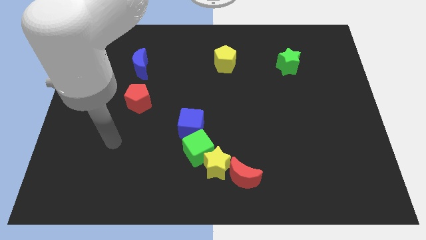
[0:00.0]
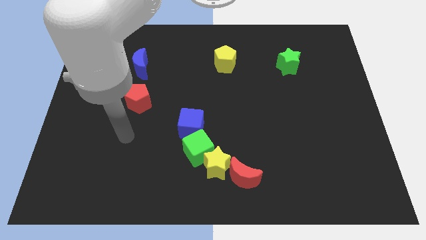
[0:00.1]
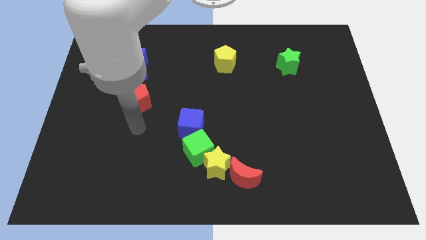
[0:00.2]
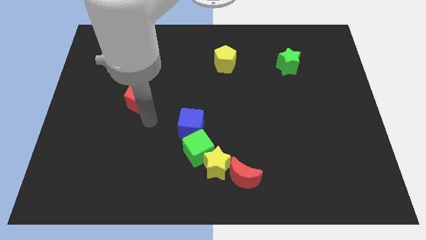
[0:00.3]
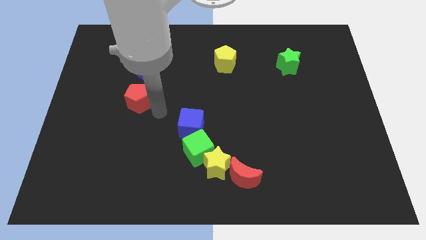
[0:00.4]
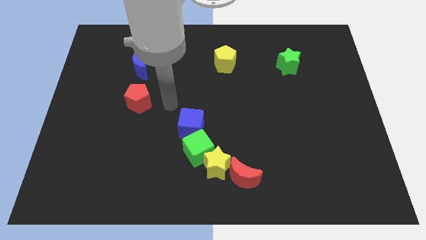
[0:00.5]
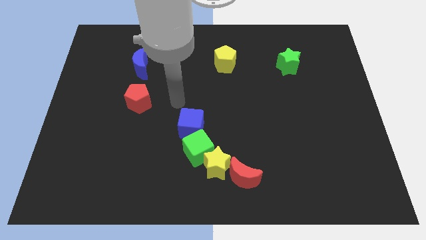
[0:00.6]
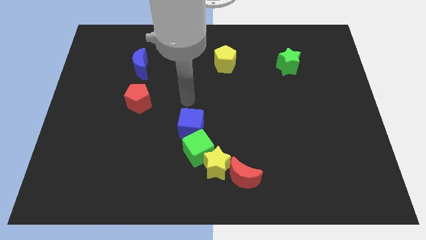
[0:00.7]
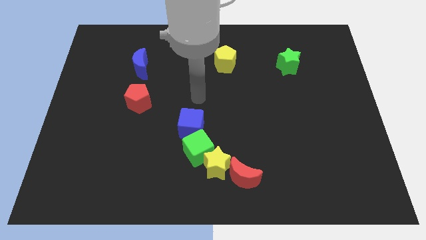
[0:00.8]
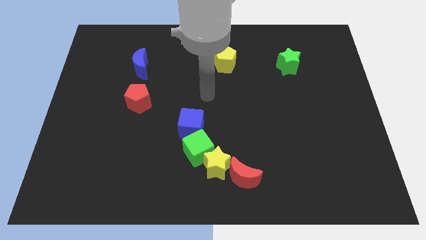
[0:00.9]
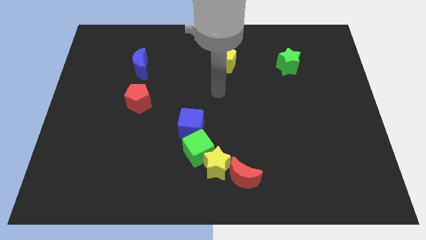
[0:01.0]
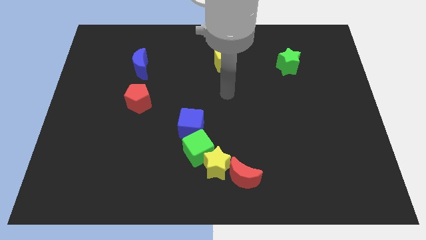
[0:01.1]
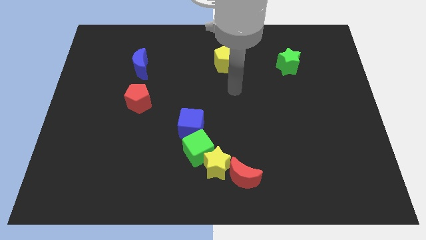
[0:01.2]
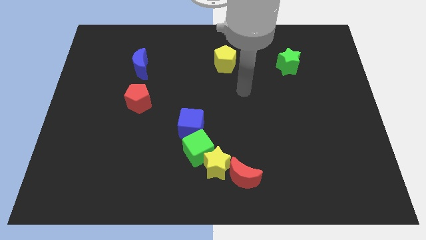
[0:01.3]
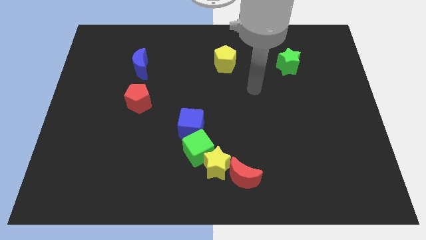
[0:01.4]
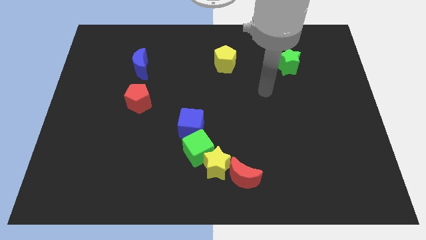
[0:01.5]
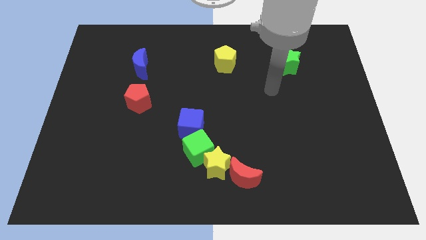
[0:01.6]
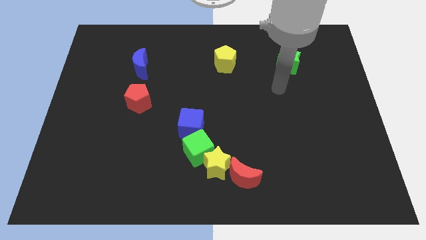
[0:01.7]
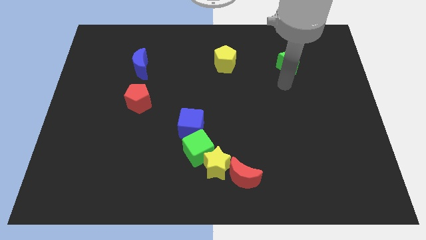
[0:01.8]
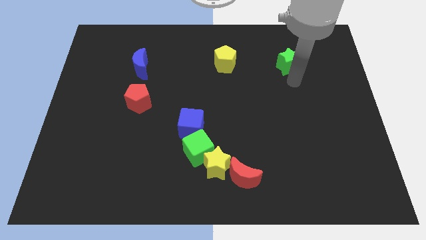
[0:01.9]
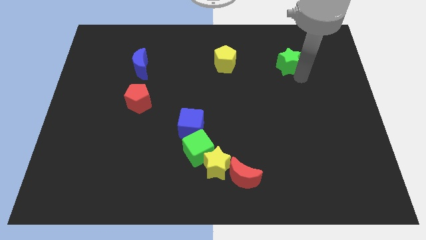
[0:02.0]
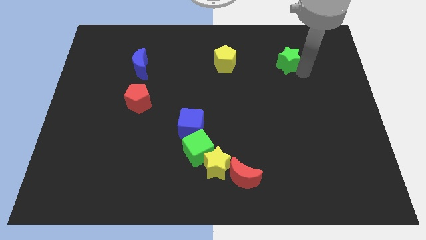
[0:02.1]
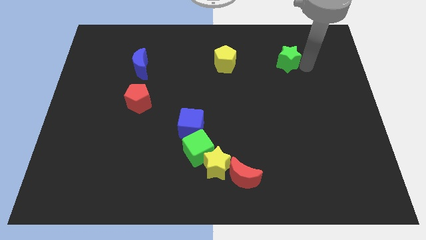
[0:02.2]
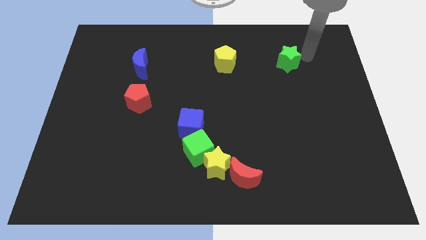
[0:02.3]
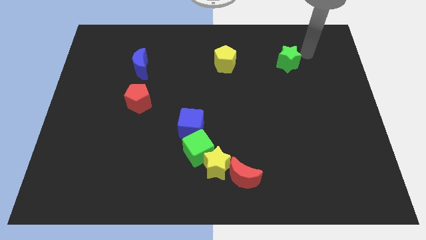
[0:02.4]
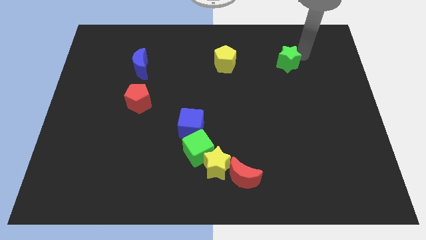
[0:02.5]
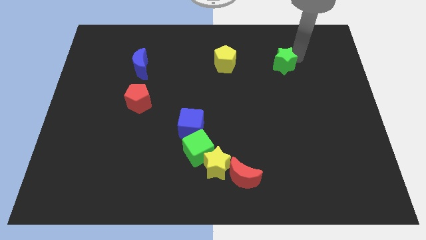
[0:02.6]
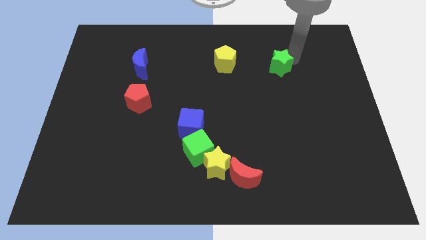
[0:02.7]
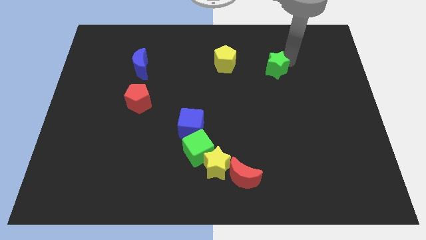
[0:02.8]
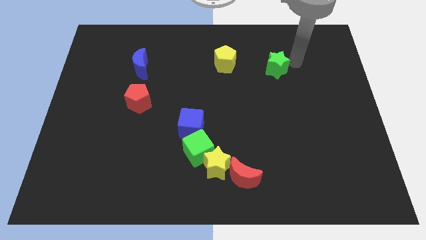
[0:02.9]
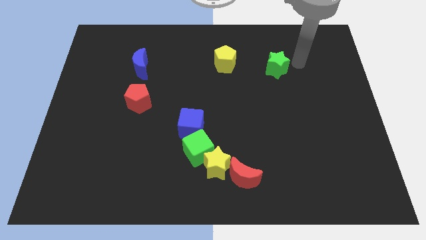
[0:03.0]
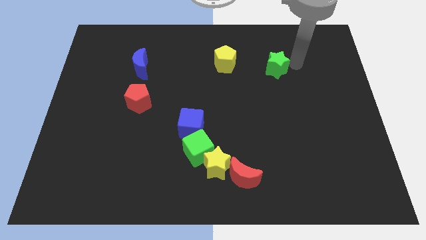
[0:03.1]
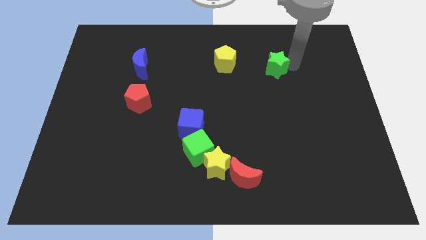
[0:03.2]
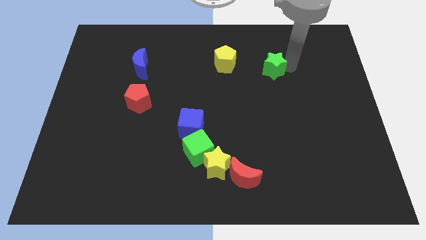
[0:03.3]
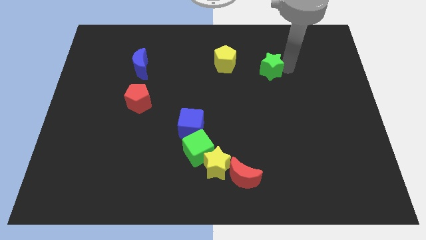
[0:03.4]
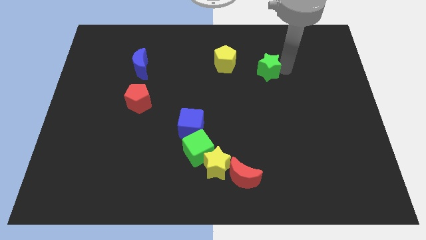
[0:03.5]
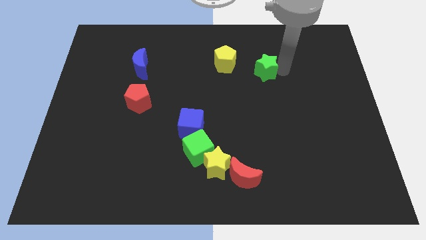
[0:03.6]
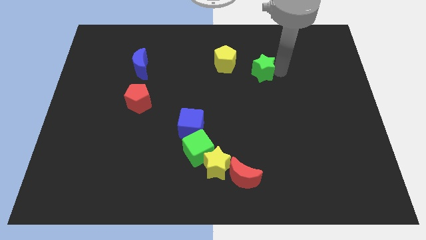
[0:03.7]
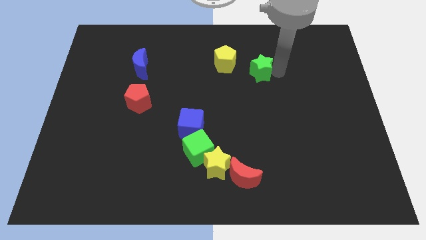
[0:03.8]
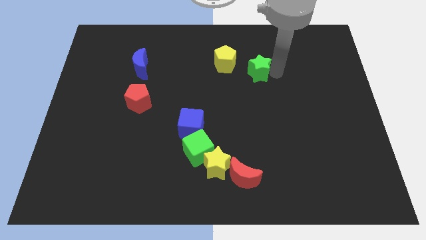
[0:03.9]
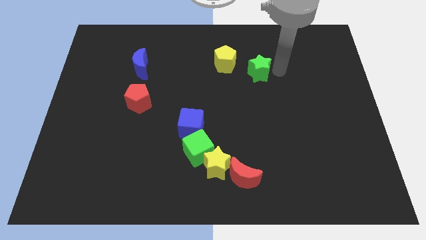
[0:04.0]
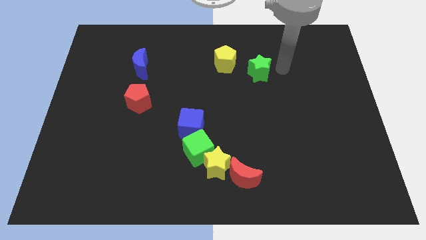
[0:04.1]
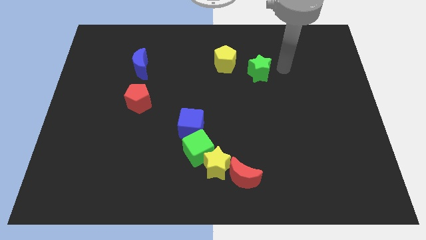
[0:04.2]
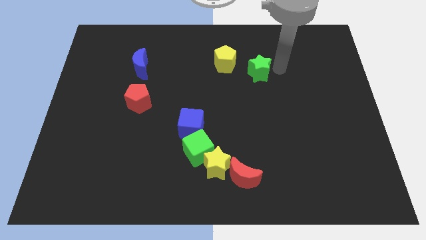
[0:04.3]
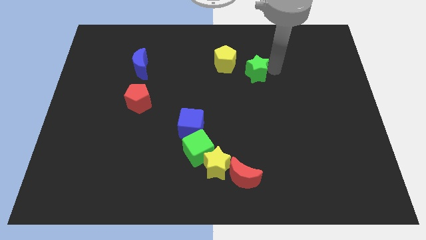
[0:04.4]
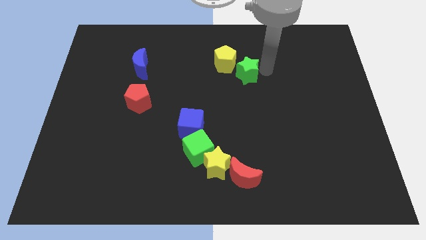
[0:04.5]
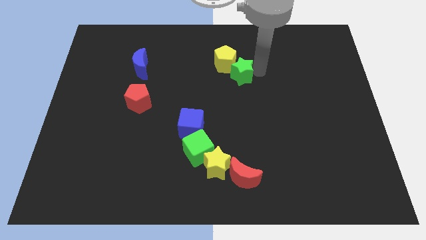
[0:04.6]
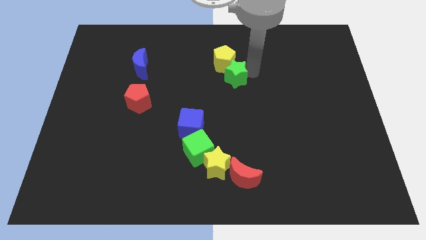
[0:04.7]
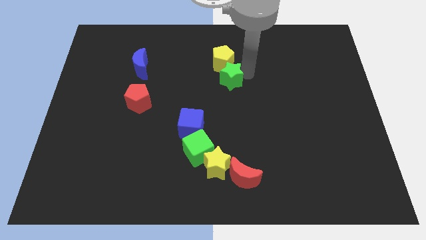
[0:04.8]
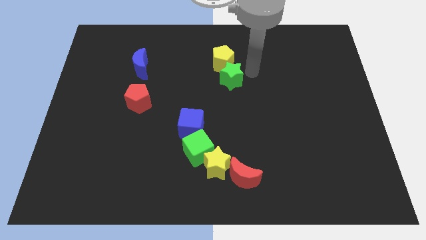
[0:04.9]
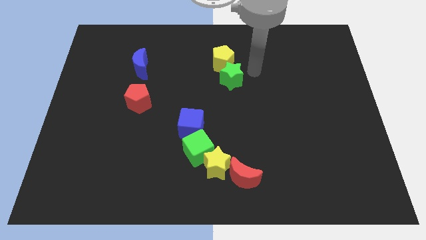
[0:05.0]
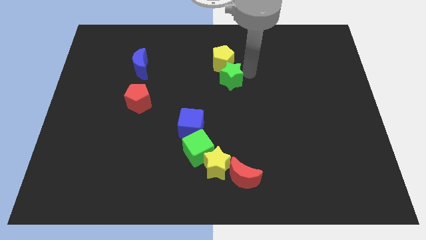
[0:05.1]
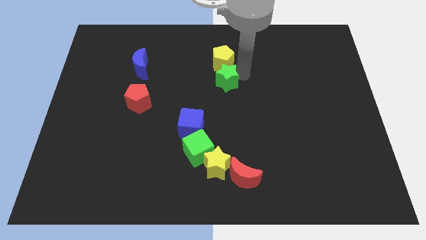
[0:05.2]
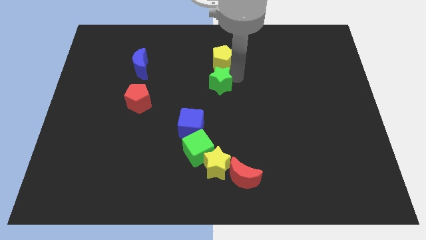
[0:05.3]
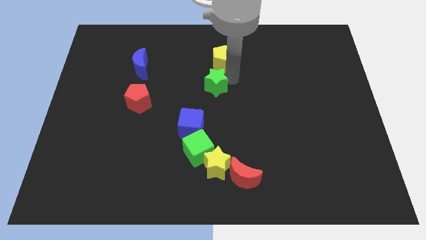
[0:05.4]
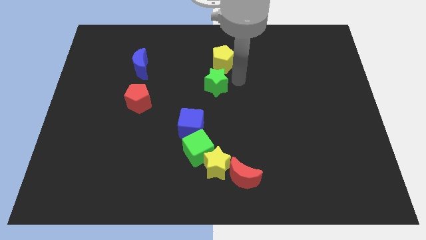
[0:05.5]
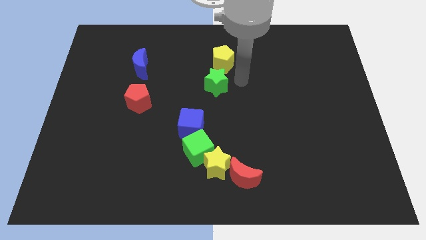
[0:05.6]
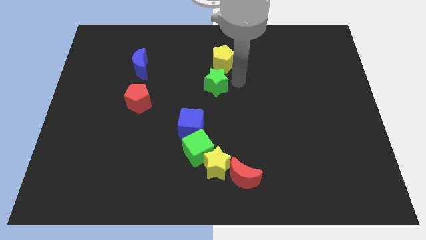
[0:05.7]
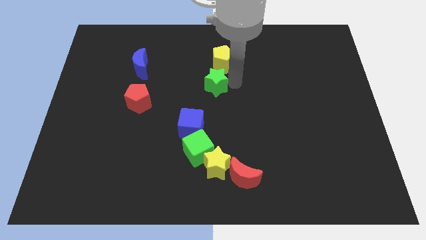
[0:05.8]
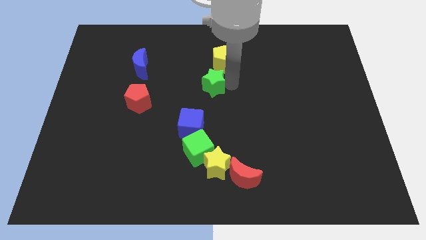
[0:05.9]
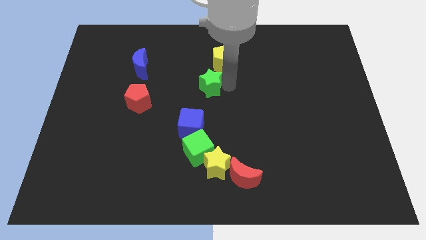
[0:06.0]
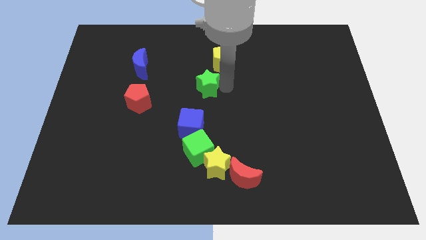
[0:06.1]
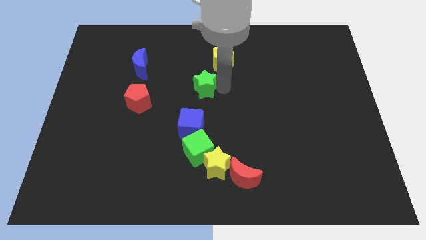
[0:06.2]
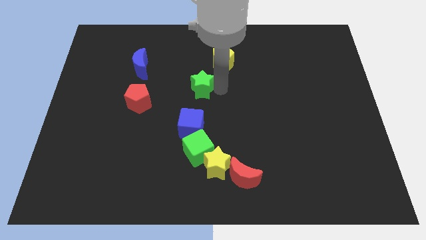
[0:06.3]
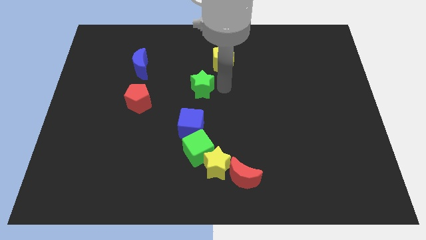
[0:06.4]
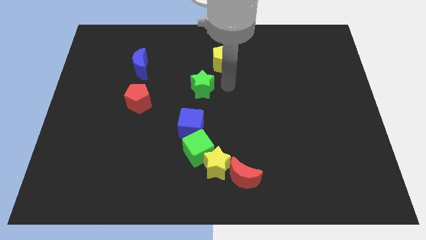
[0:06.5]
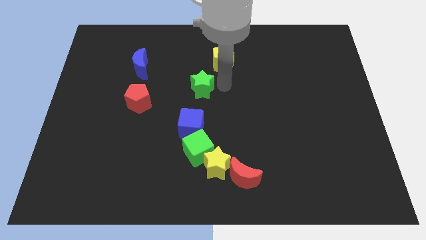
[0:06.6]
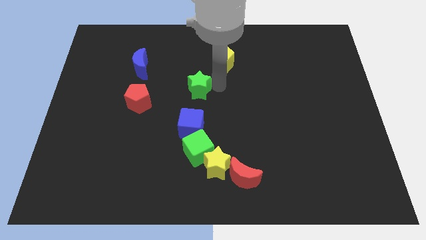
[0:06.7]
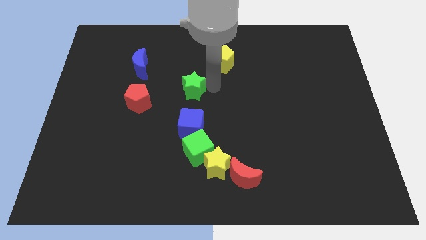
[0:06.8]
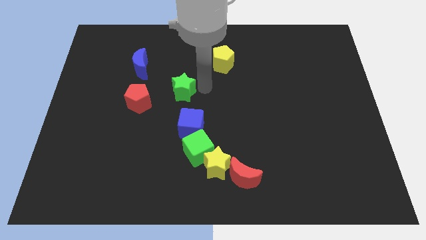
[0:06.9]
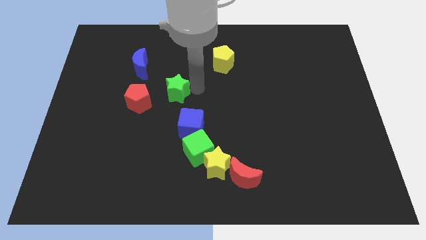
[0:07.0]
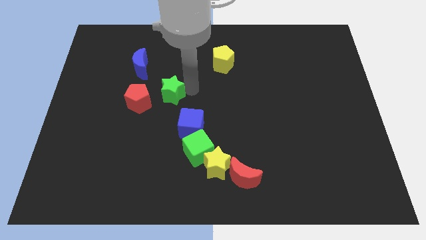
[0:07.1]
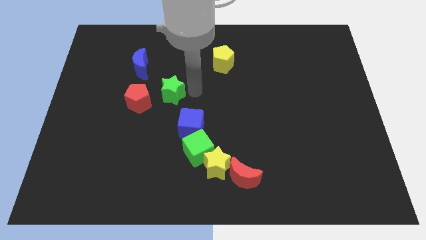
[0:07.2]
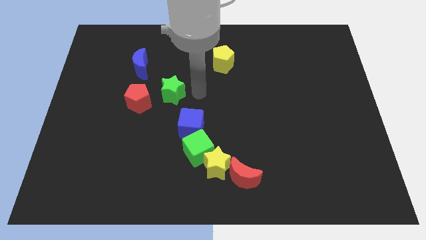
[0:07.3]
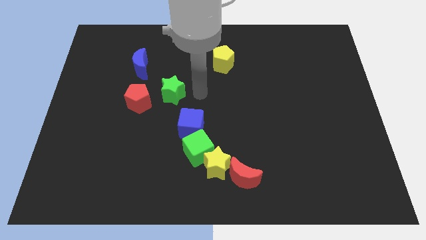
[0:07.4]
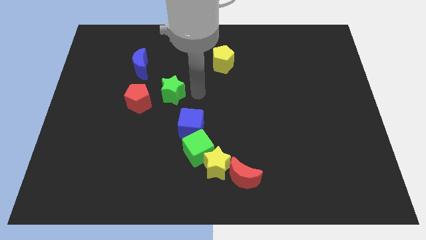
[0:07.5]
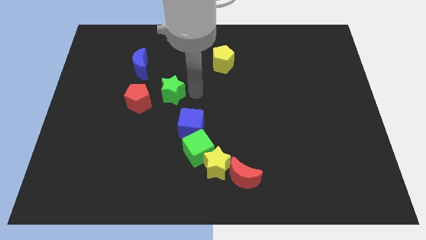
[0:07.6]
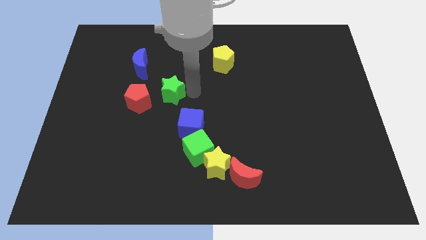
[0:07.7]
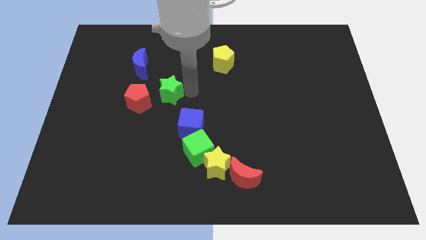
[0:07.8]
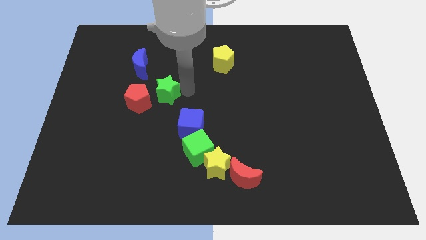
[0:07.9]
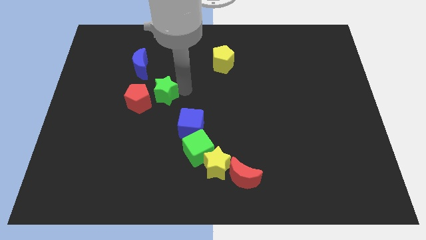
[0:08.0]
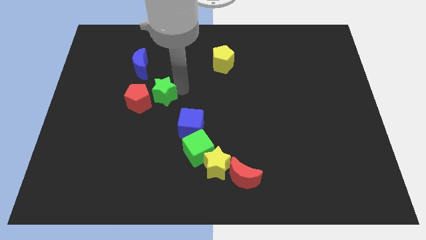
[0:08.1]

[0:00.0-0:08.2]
put the green star close to the red pentagon
